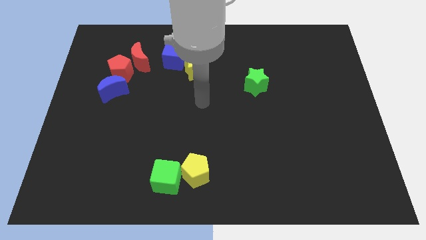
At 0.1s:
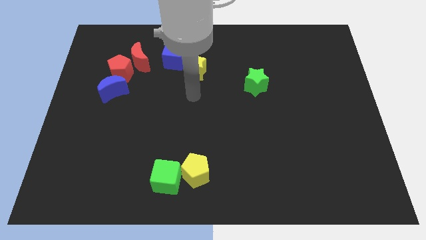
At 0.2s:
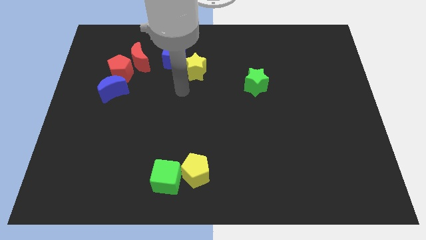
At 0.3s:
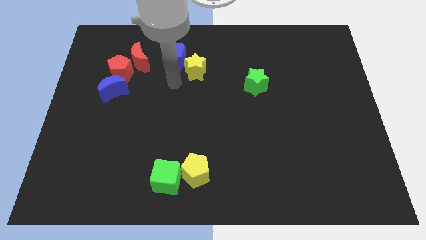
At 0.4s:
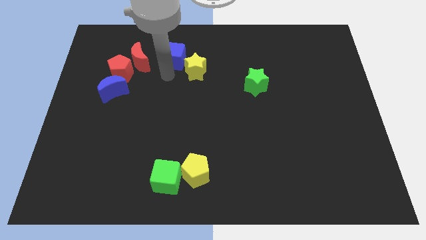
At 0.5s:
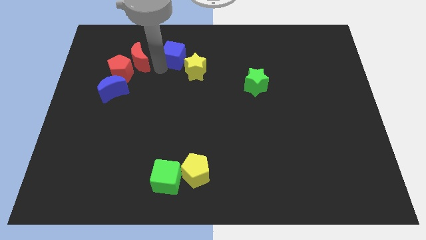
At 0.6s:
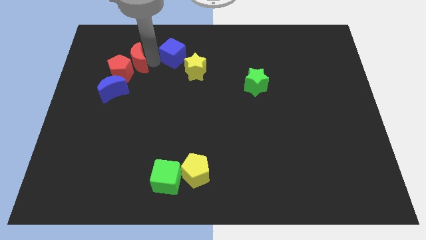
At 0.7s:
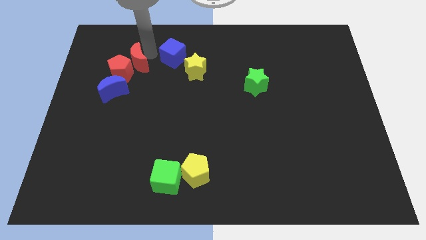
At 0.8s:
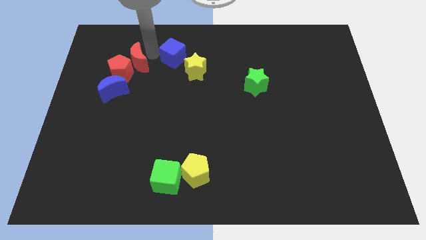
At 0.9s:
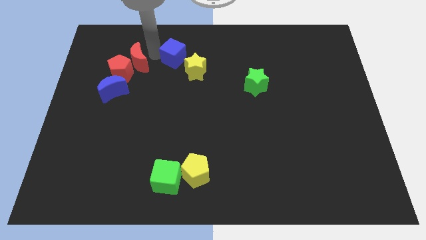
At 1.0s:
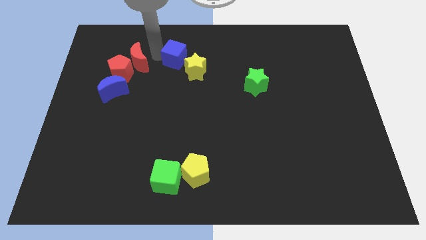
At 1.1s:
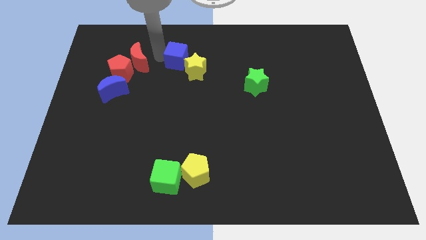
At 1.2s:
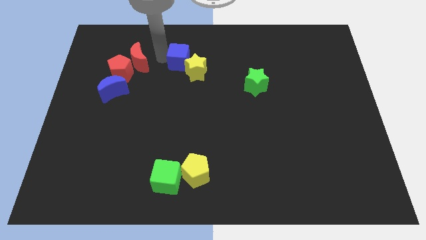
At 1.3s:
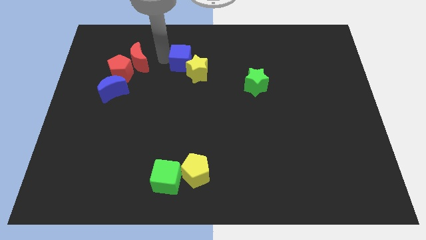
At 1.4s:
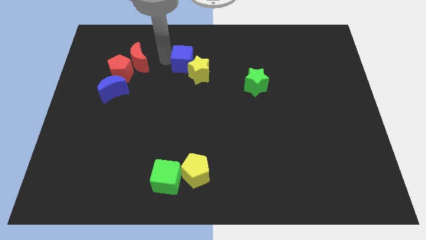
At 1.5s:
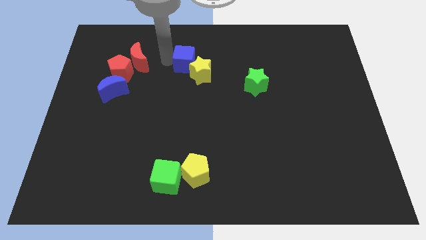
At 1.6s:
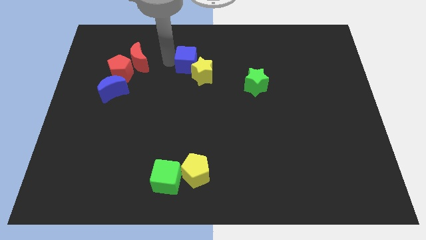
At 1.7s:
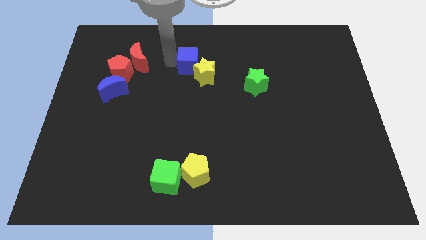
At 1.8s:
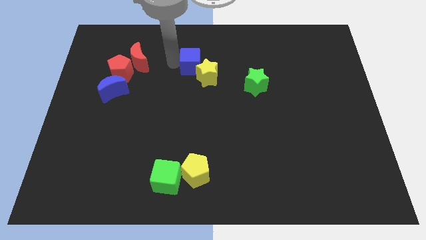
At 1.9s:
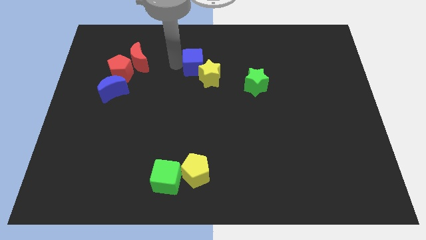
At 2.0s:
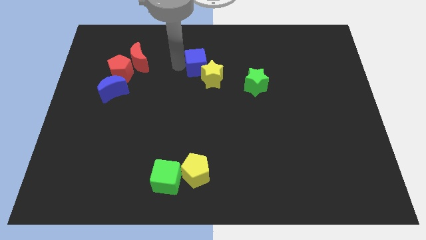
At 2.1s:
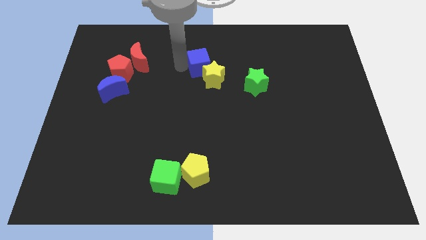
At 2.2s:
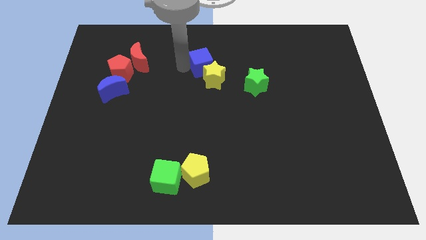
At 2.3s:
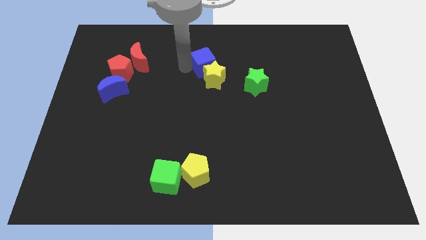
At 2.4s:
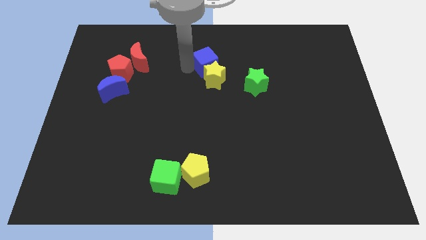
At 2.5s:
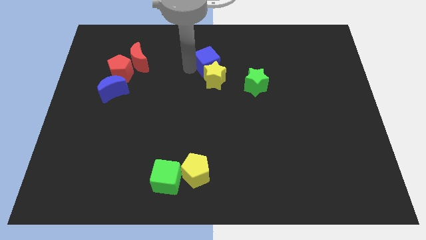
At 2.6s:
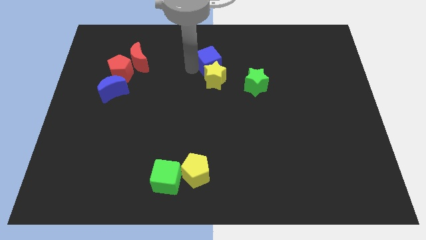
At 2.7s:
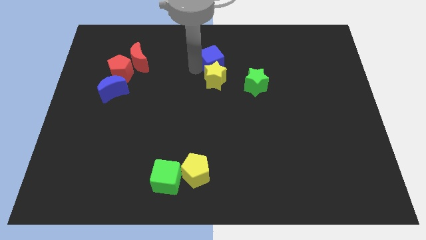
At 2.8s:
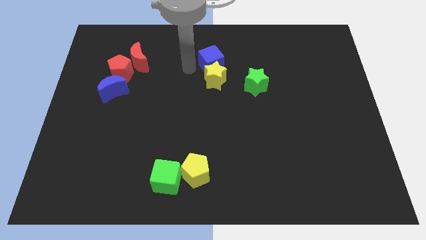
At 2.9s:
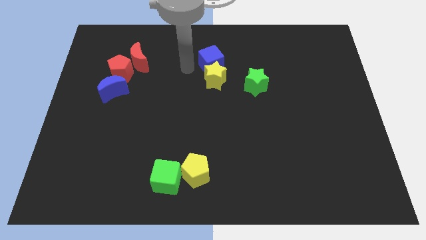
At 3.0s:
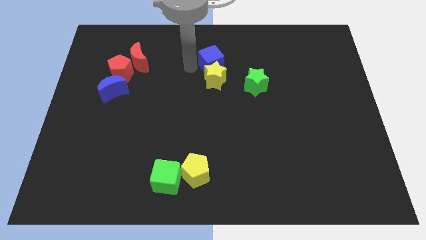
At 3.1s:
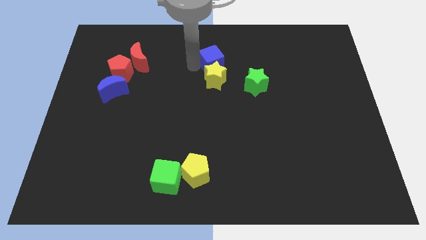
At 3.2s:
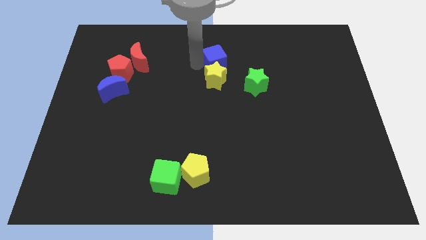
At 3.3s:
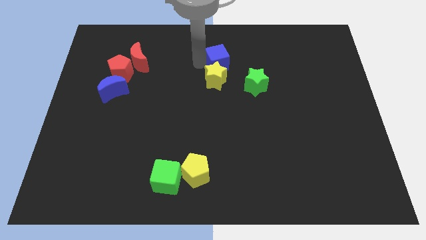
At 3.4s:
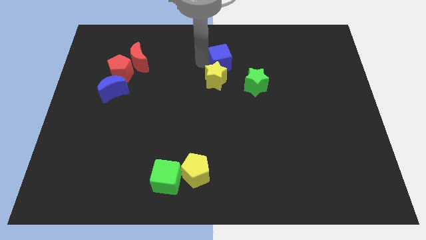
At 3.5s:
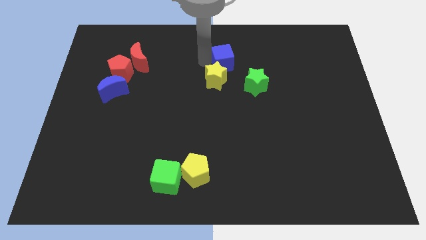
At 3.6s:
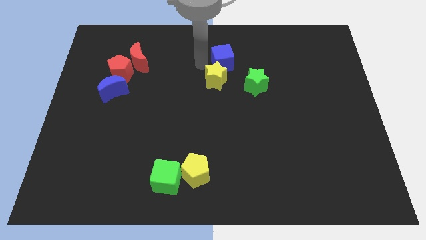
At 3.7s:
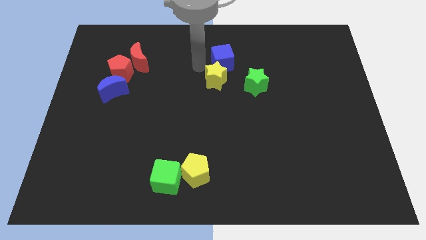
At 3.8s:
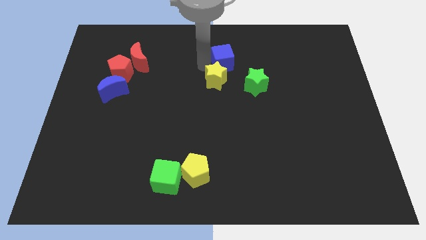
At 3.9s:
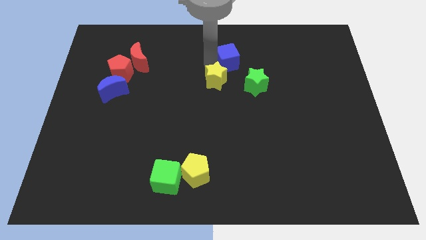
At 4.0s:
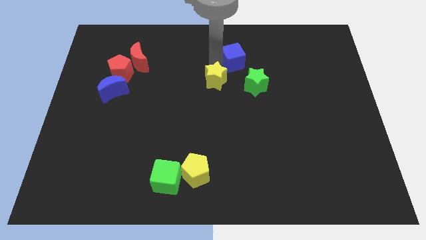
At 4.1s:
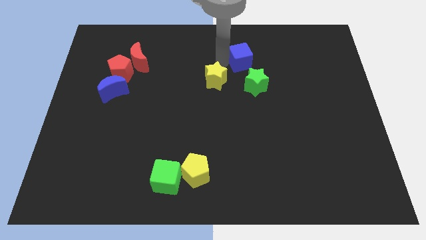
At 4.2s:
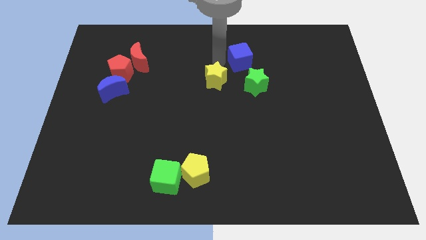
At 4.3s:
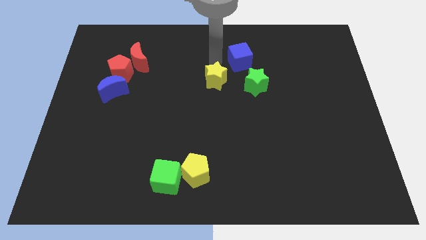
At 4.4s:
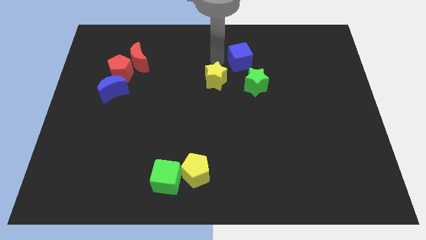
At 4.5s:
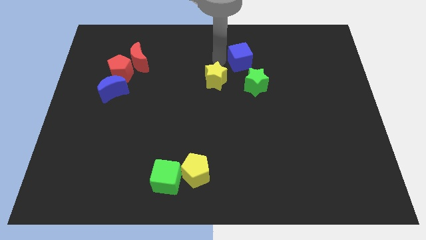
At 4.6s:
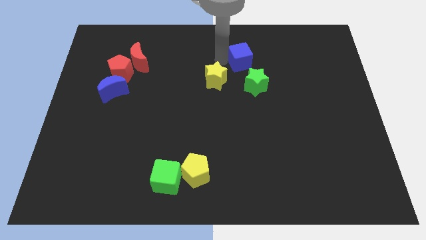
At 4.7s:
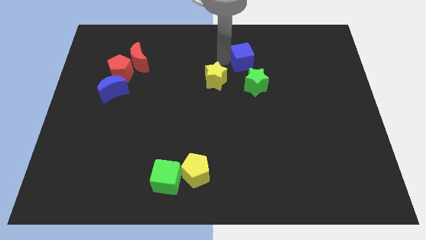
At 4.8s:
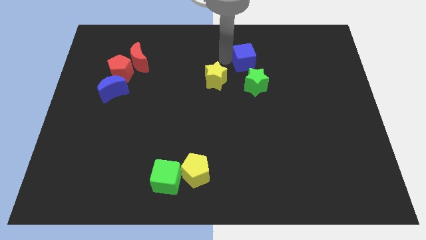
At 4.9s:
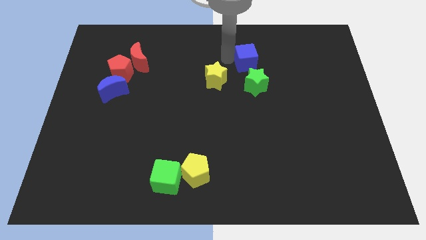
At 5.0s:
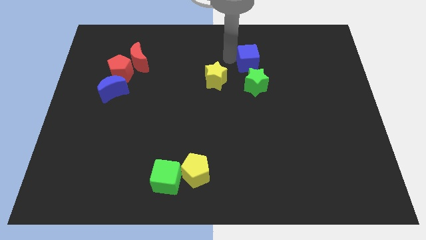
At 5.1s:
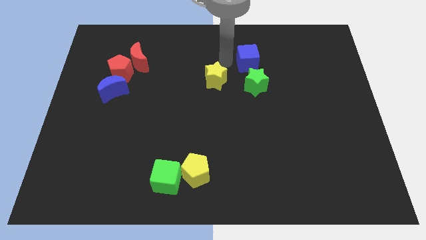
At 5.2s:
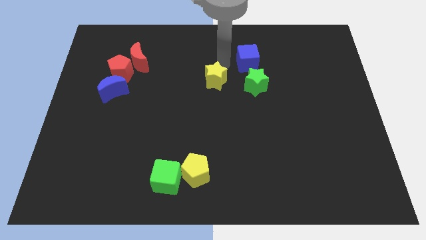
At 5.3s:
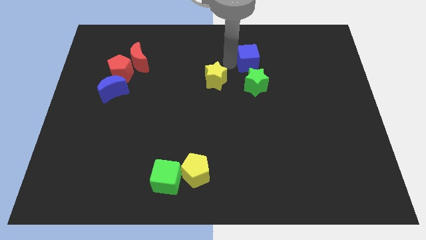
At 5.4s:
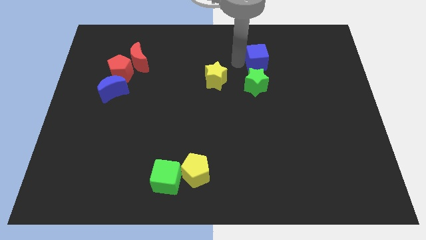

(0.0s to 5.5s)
move the blue cube right

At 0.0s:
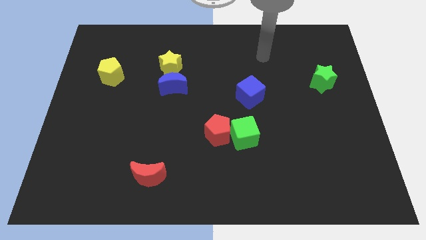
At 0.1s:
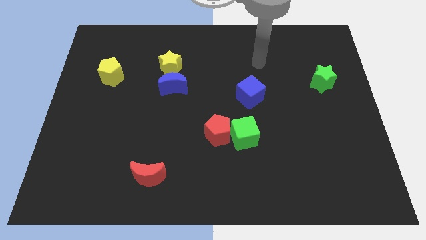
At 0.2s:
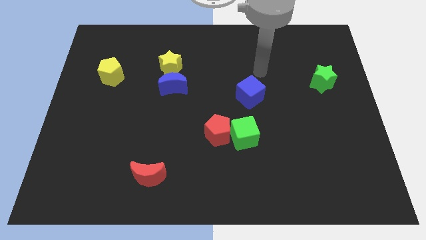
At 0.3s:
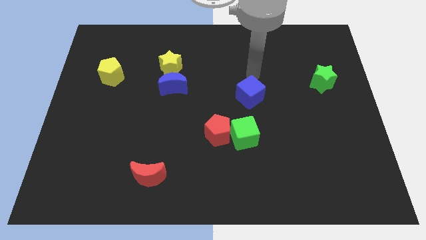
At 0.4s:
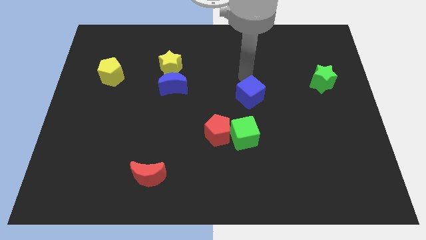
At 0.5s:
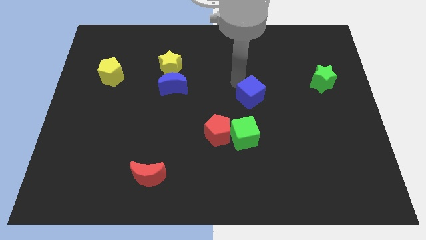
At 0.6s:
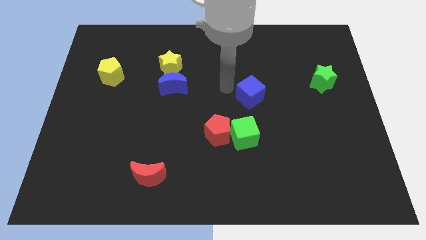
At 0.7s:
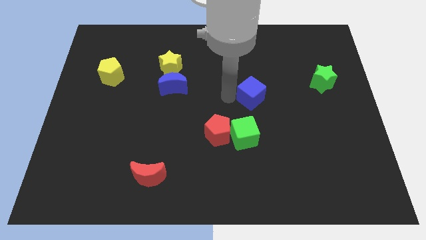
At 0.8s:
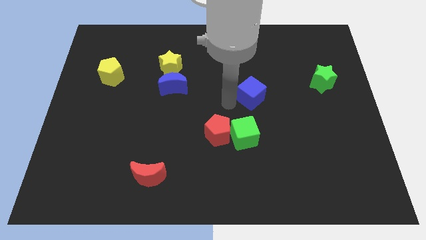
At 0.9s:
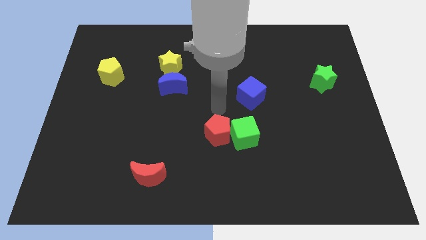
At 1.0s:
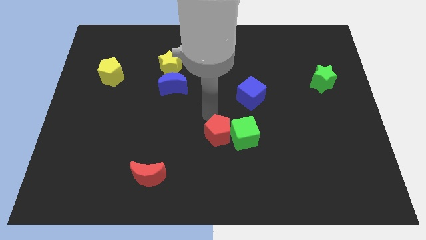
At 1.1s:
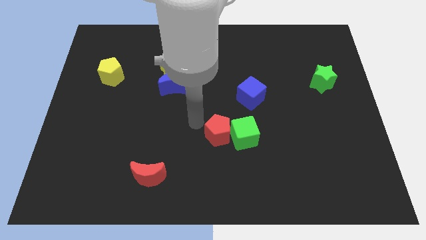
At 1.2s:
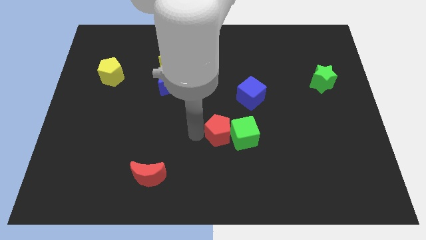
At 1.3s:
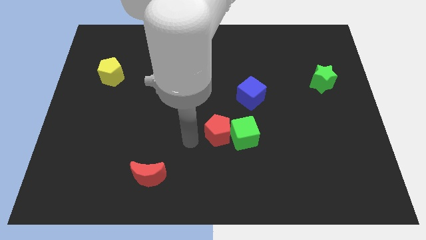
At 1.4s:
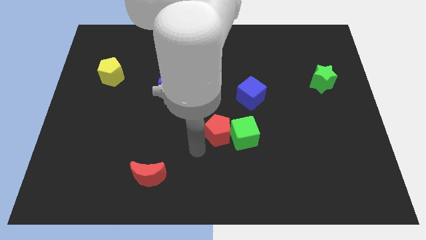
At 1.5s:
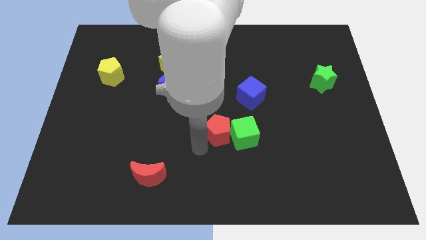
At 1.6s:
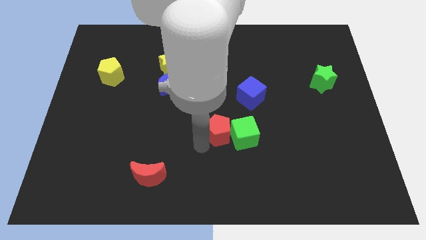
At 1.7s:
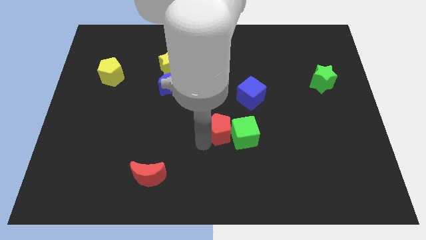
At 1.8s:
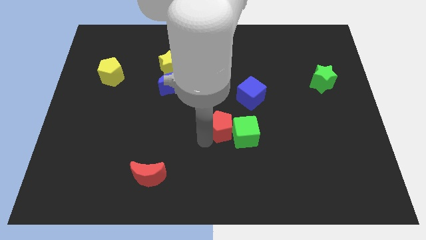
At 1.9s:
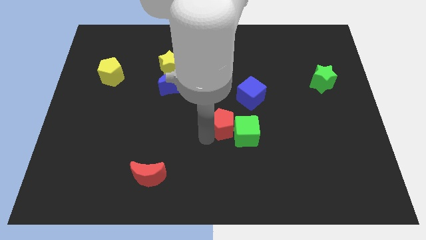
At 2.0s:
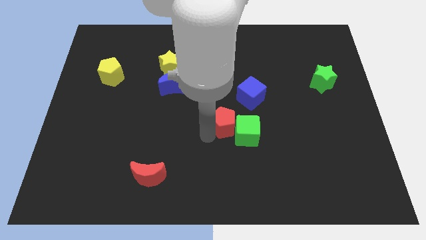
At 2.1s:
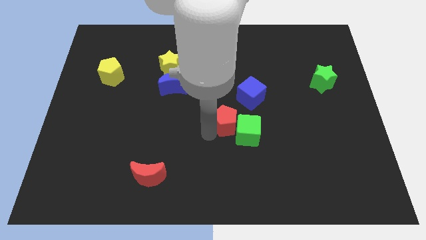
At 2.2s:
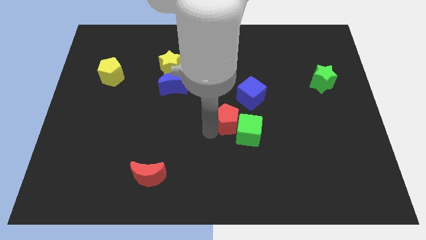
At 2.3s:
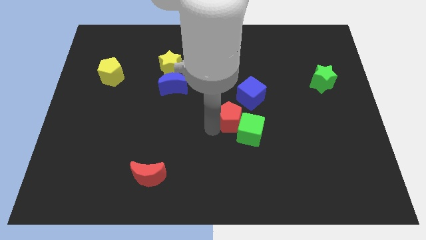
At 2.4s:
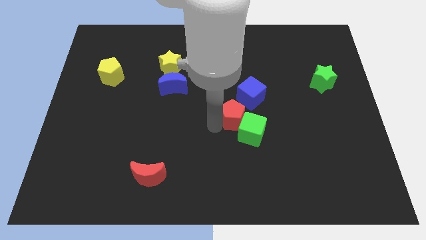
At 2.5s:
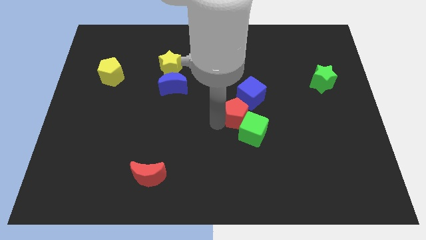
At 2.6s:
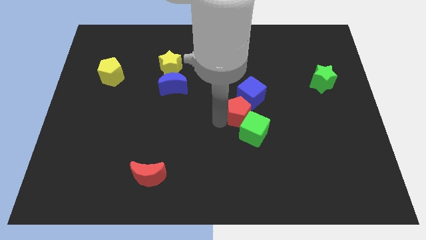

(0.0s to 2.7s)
slide the red pentagon up and right a little
